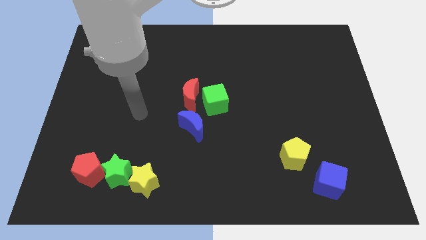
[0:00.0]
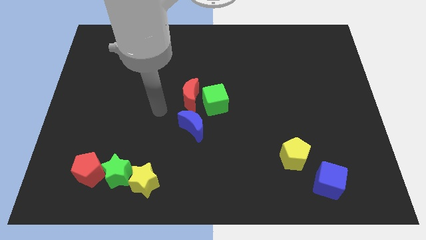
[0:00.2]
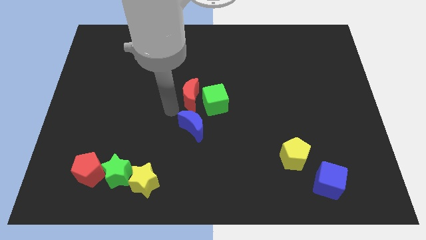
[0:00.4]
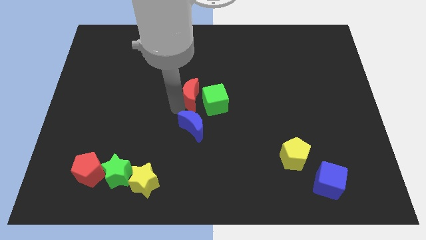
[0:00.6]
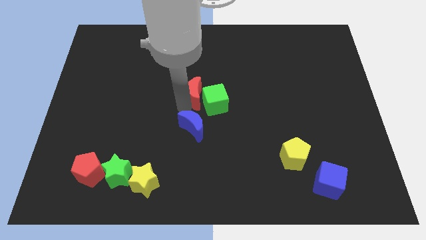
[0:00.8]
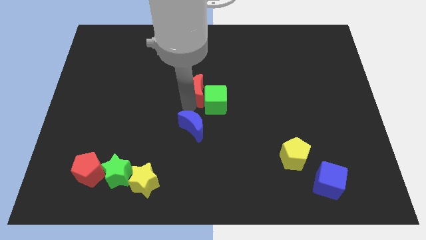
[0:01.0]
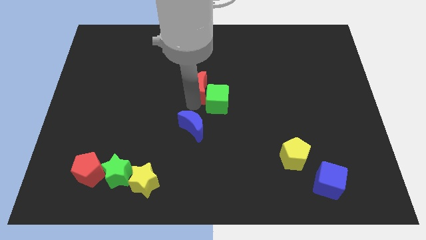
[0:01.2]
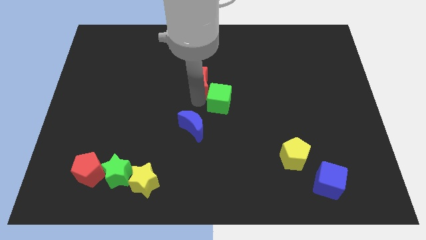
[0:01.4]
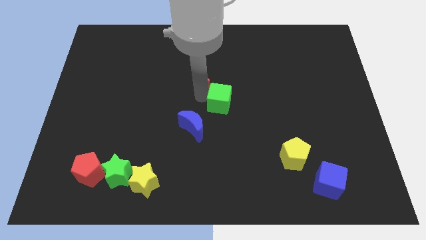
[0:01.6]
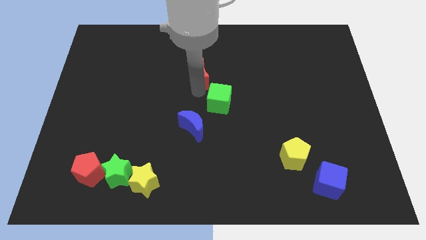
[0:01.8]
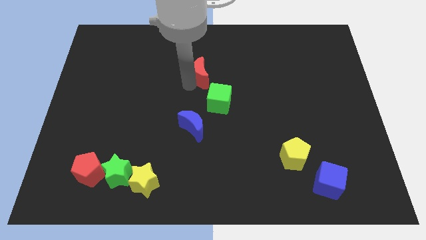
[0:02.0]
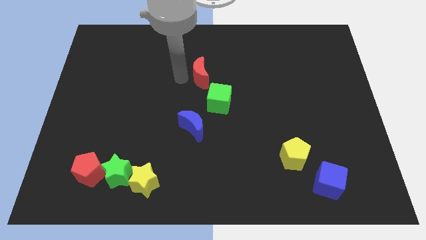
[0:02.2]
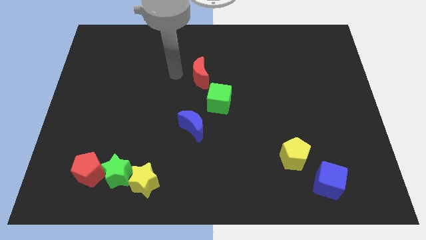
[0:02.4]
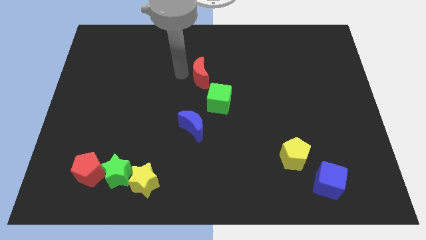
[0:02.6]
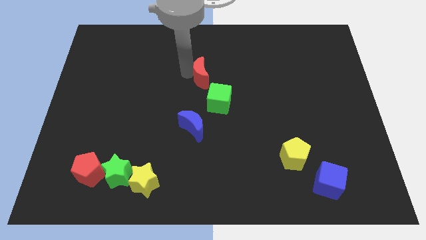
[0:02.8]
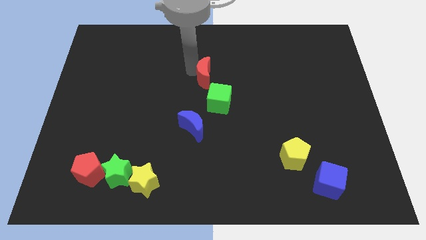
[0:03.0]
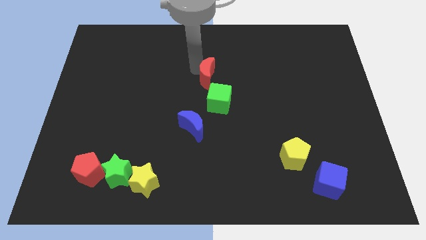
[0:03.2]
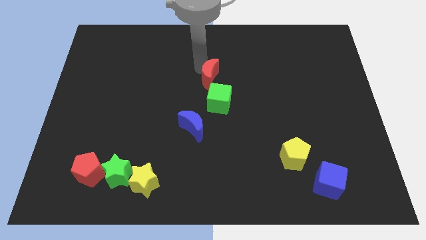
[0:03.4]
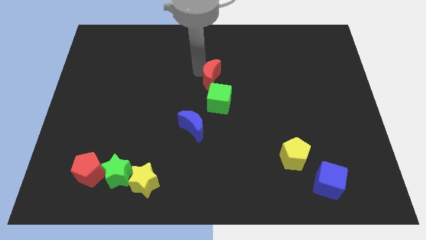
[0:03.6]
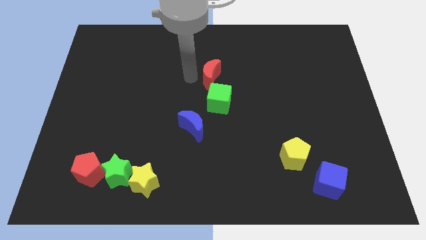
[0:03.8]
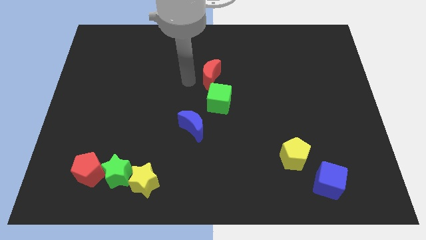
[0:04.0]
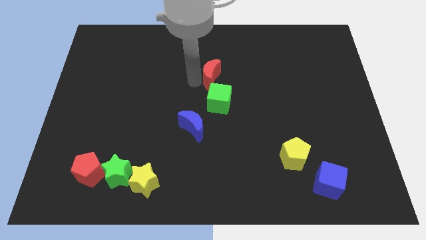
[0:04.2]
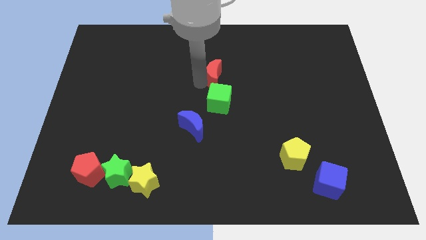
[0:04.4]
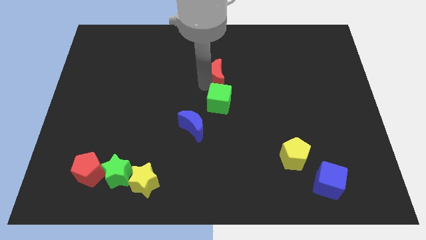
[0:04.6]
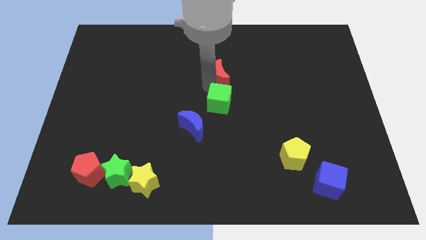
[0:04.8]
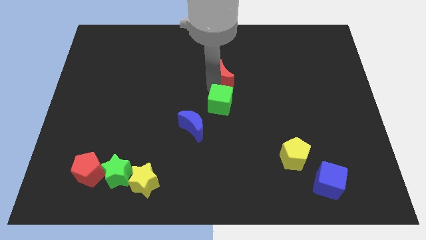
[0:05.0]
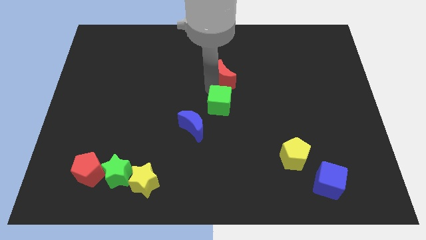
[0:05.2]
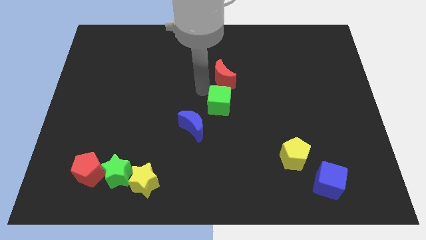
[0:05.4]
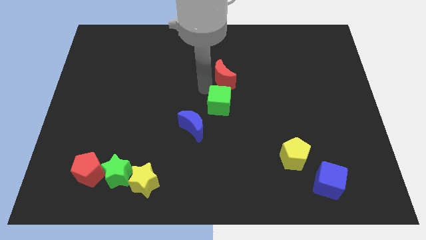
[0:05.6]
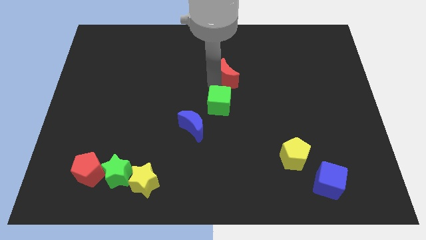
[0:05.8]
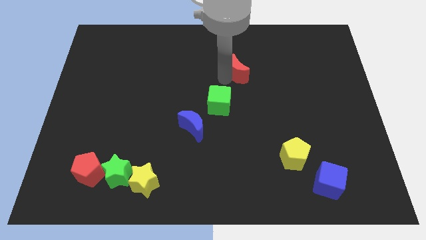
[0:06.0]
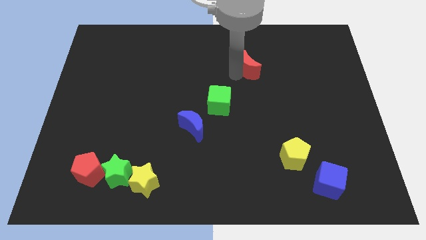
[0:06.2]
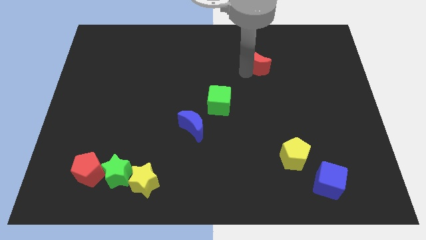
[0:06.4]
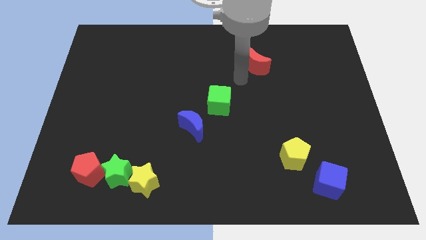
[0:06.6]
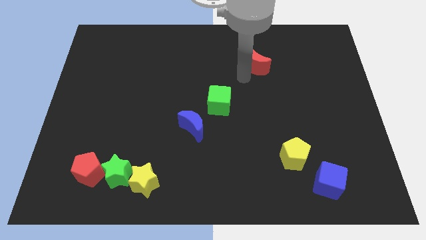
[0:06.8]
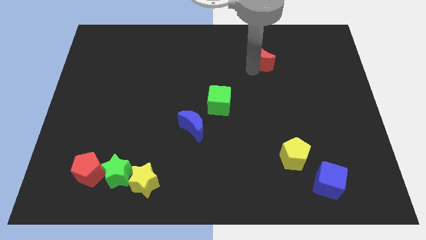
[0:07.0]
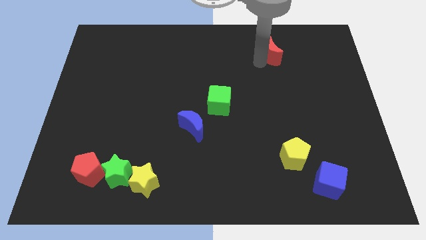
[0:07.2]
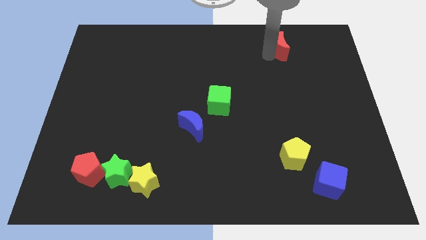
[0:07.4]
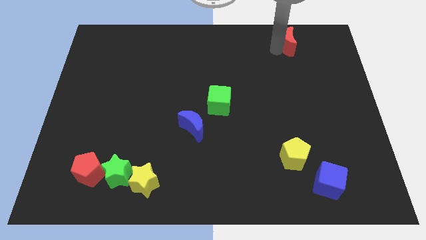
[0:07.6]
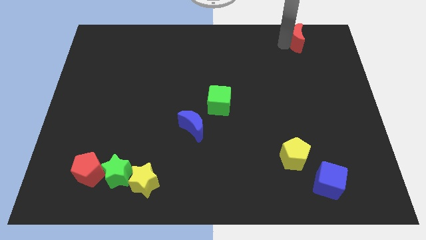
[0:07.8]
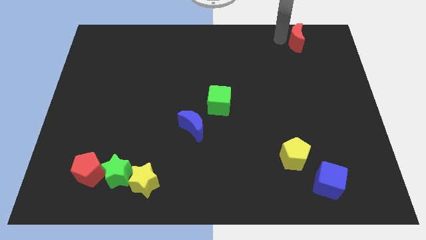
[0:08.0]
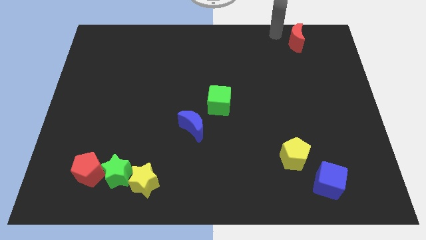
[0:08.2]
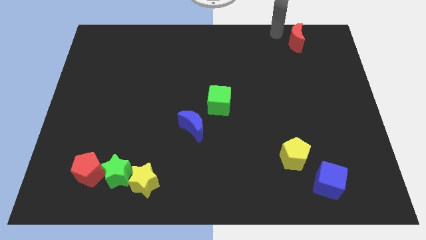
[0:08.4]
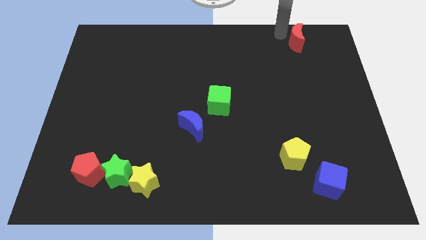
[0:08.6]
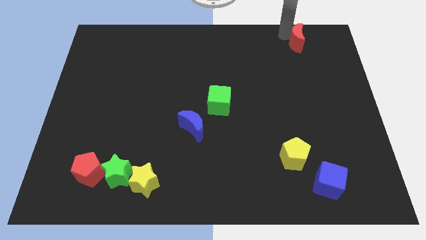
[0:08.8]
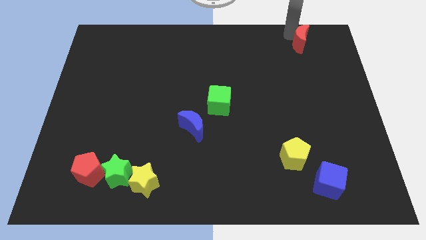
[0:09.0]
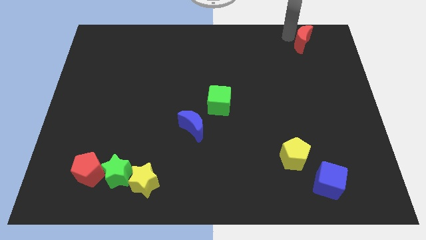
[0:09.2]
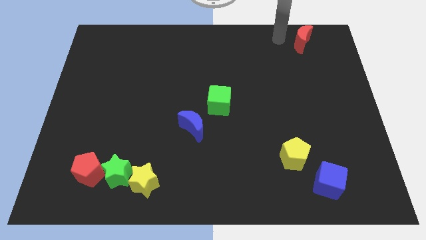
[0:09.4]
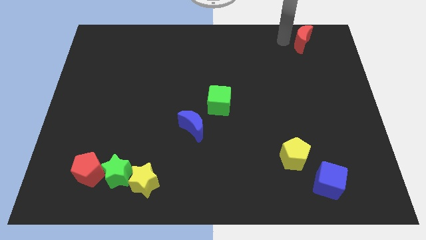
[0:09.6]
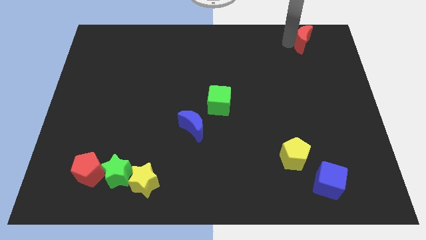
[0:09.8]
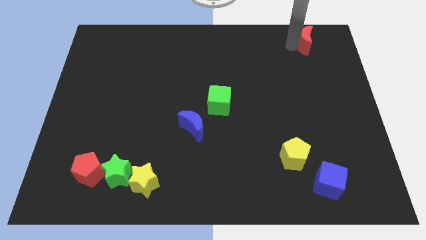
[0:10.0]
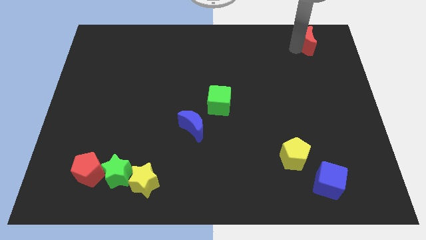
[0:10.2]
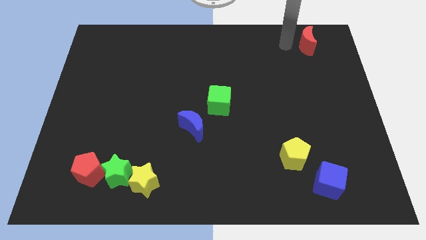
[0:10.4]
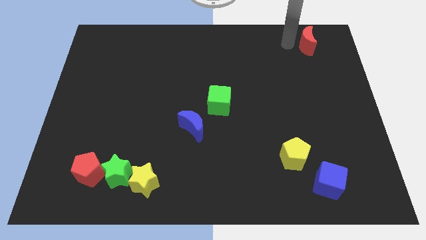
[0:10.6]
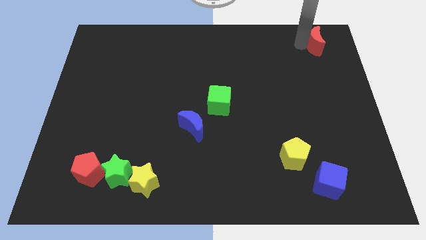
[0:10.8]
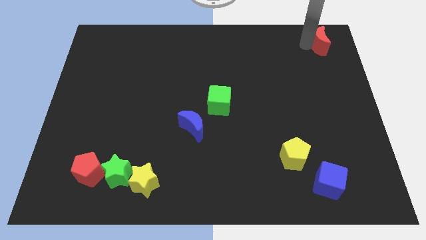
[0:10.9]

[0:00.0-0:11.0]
move the red moon to the top right of the board

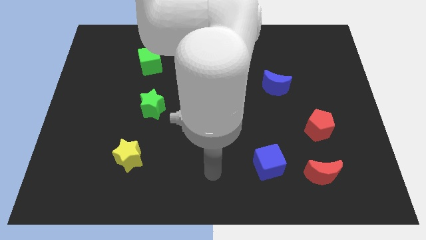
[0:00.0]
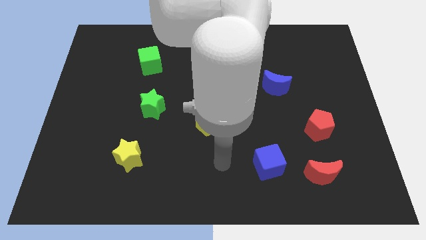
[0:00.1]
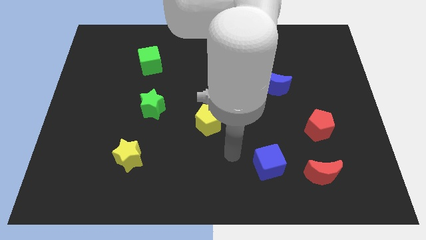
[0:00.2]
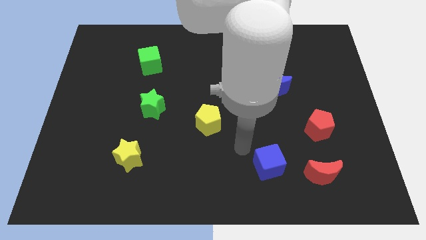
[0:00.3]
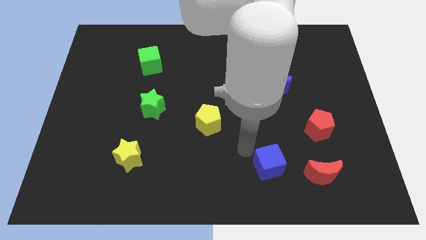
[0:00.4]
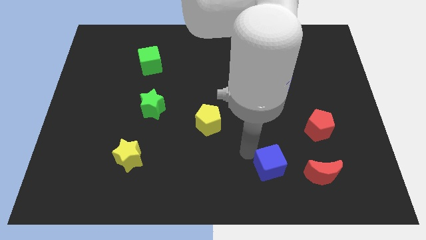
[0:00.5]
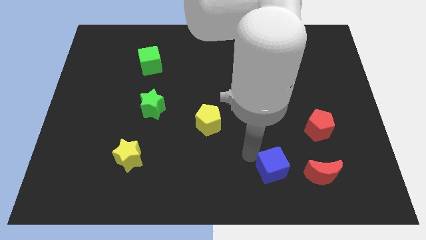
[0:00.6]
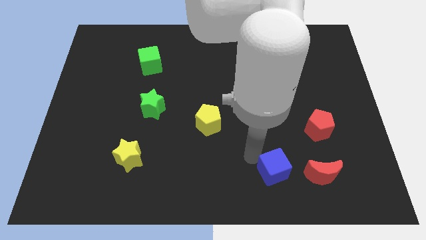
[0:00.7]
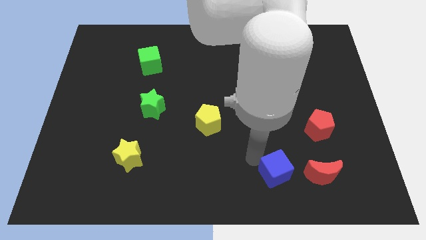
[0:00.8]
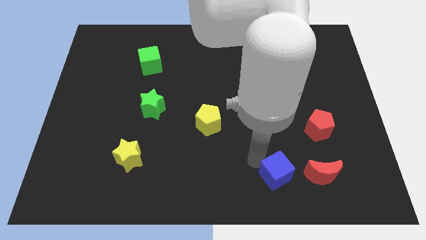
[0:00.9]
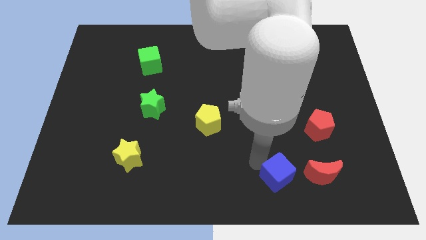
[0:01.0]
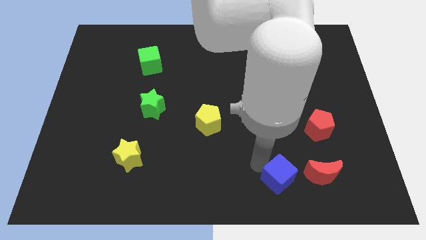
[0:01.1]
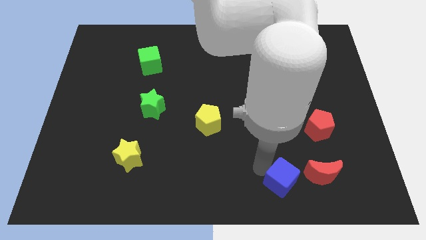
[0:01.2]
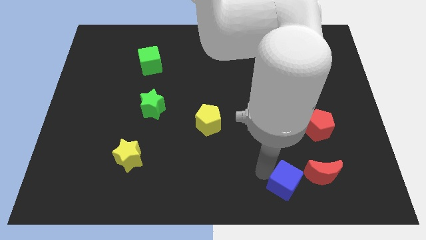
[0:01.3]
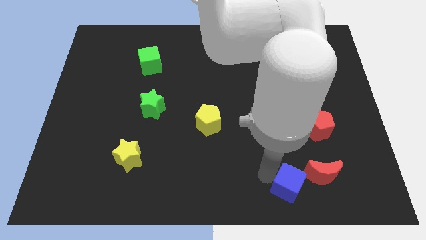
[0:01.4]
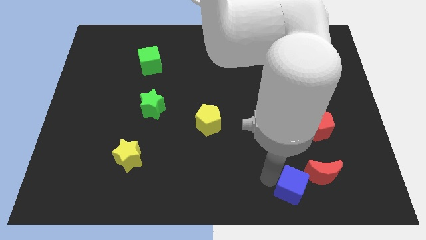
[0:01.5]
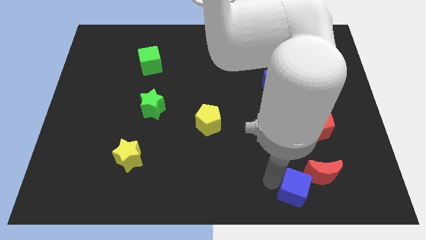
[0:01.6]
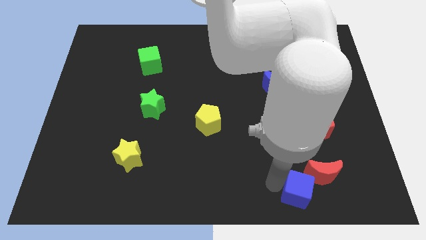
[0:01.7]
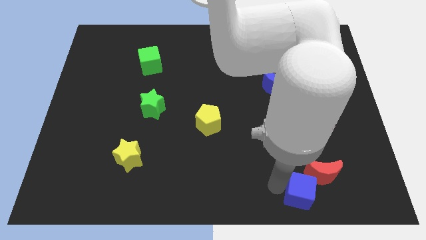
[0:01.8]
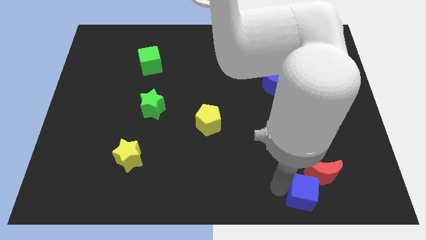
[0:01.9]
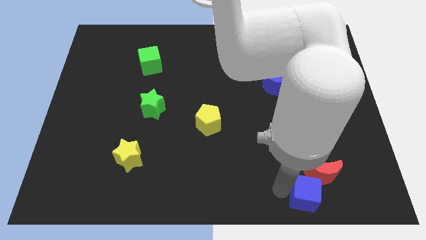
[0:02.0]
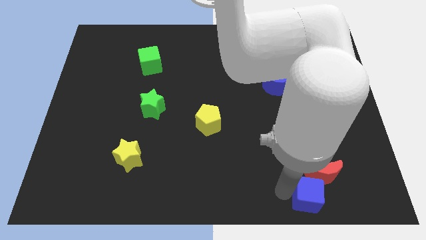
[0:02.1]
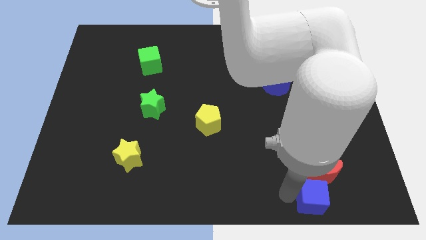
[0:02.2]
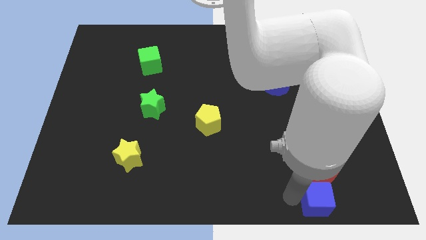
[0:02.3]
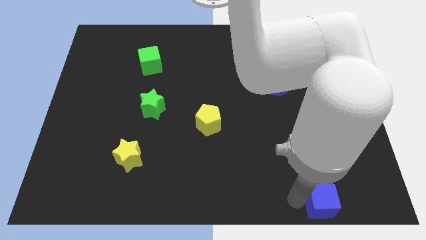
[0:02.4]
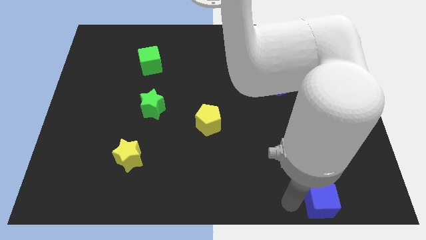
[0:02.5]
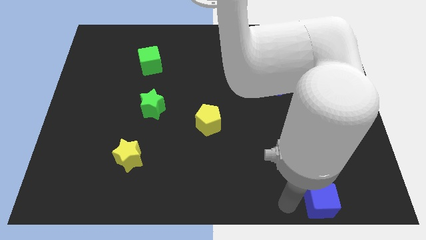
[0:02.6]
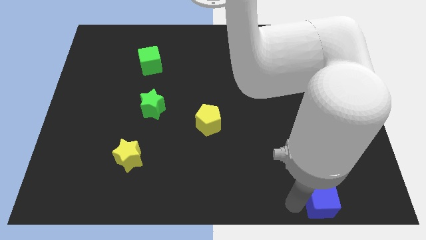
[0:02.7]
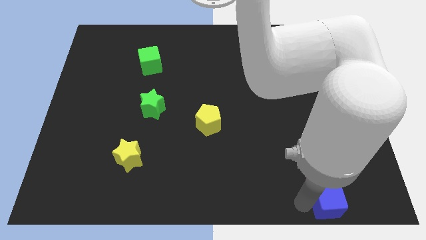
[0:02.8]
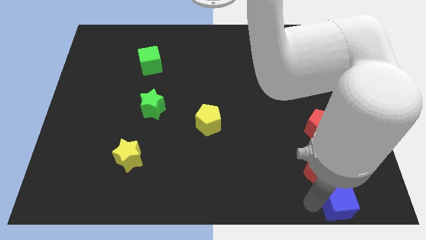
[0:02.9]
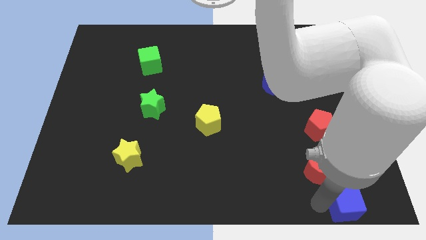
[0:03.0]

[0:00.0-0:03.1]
push the blue cube to the bottom right corner
